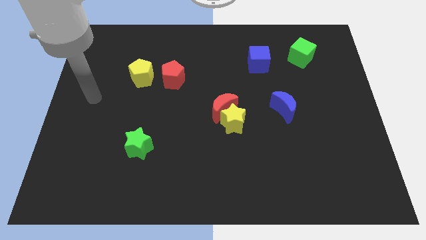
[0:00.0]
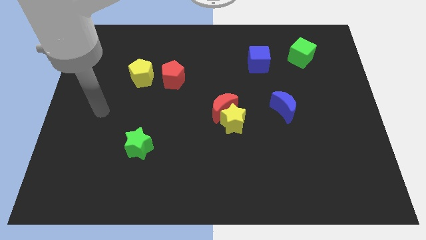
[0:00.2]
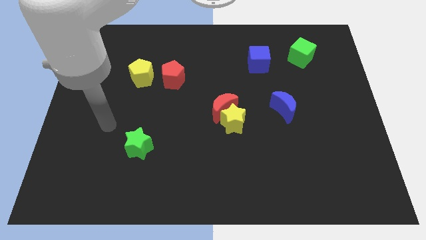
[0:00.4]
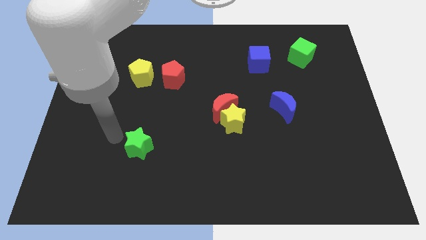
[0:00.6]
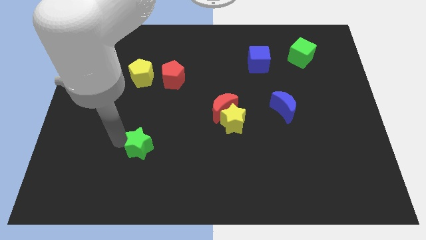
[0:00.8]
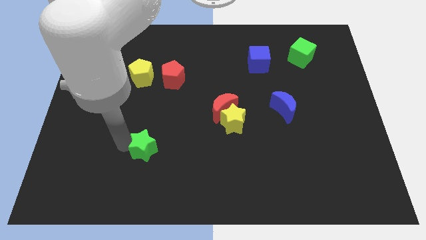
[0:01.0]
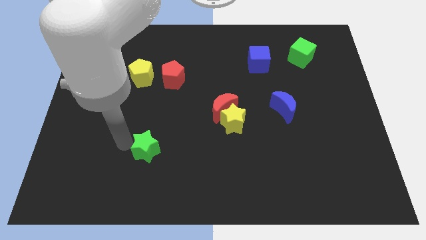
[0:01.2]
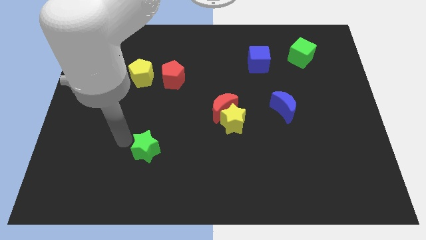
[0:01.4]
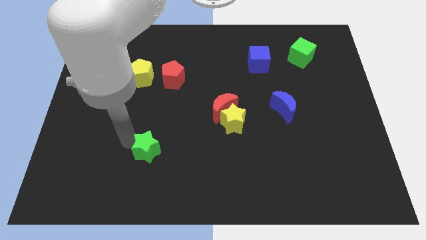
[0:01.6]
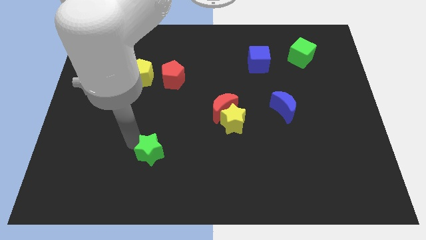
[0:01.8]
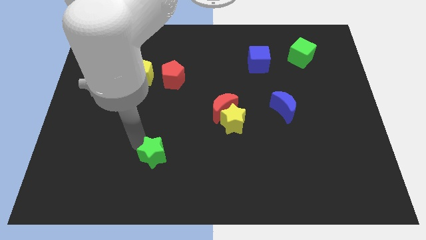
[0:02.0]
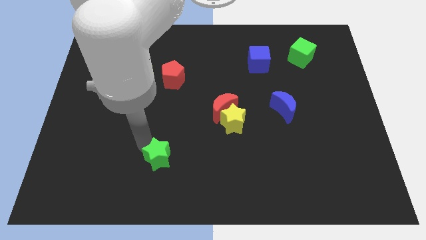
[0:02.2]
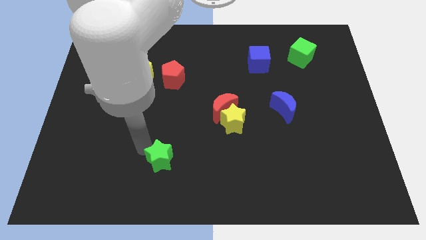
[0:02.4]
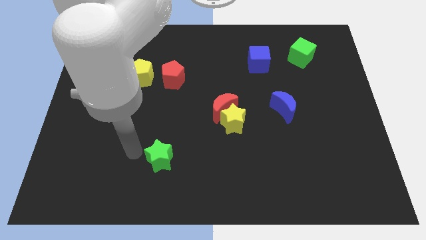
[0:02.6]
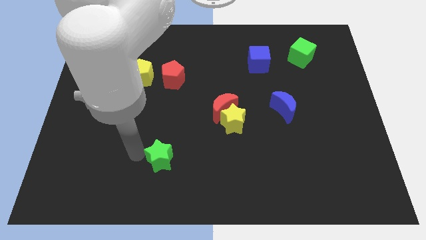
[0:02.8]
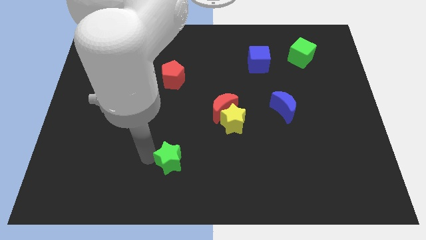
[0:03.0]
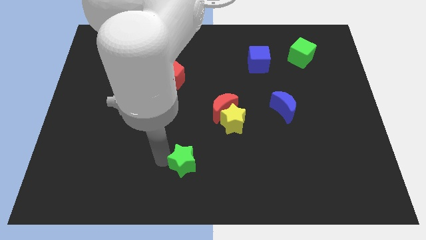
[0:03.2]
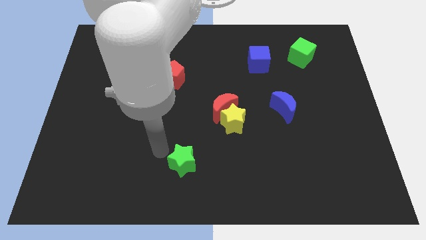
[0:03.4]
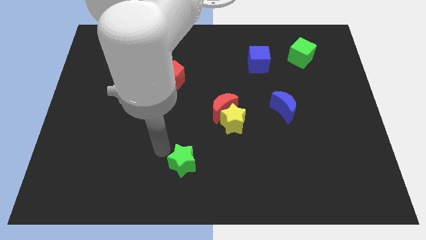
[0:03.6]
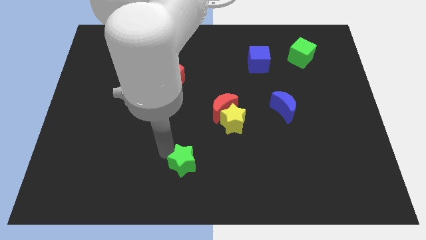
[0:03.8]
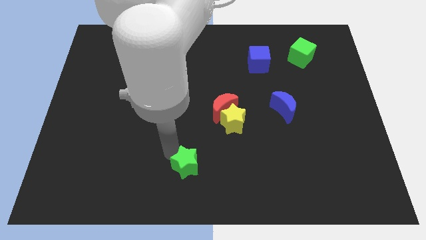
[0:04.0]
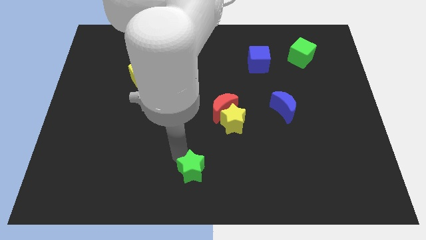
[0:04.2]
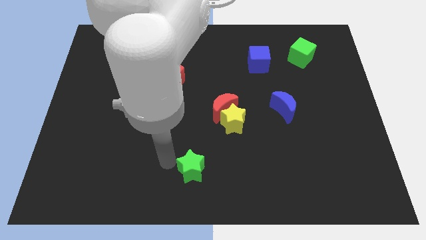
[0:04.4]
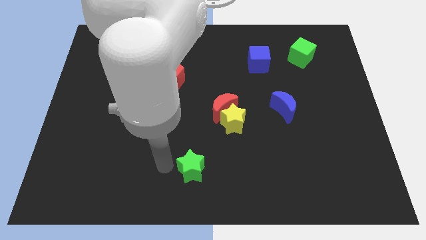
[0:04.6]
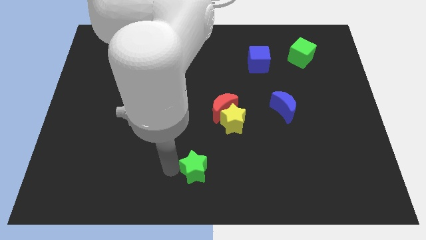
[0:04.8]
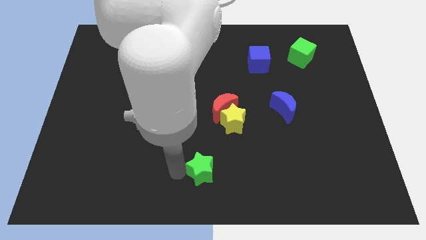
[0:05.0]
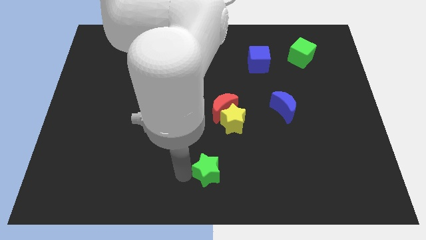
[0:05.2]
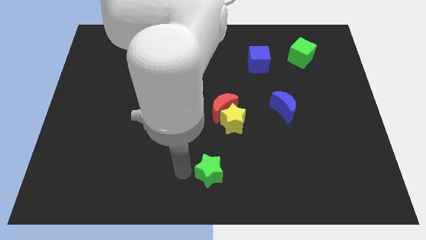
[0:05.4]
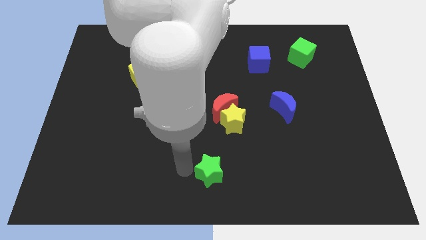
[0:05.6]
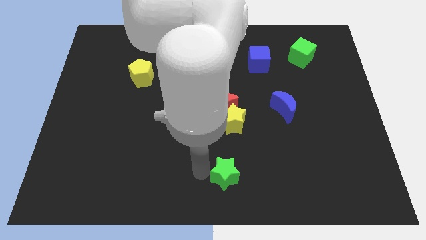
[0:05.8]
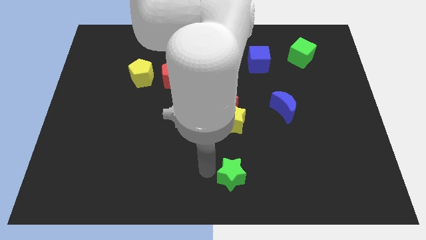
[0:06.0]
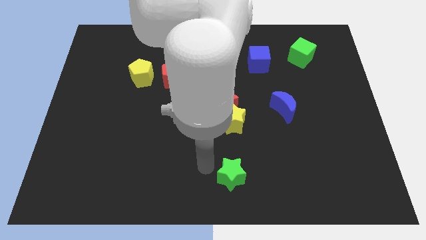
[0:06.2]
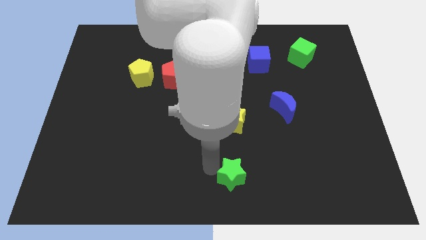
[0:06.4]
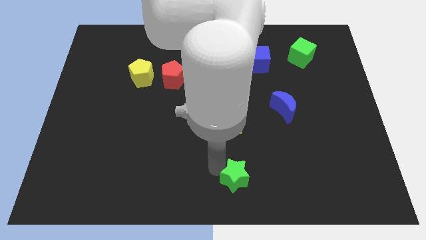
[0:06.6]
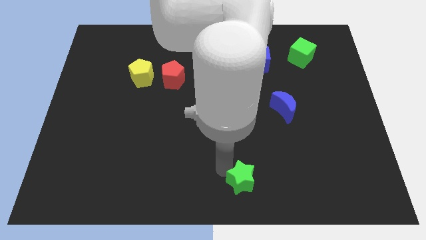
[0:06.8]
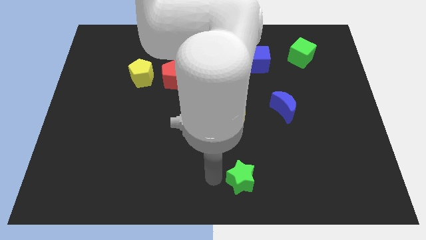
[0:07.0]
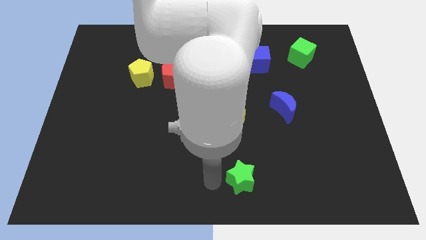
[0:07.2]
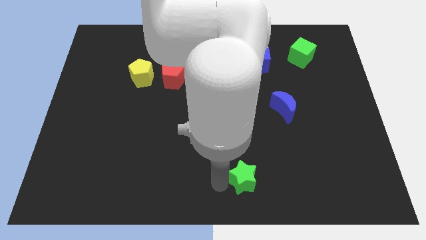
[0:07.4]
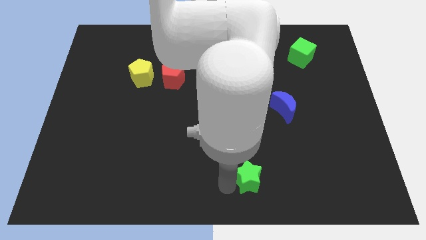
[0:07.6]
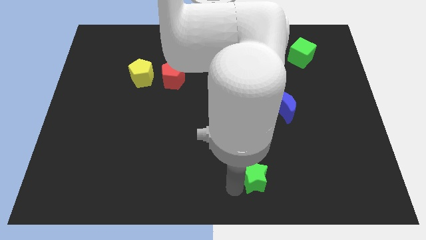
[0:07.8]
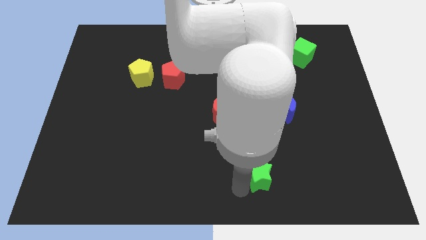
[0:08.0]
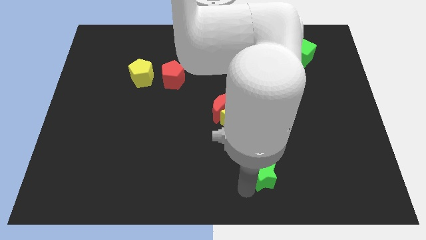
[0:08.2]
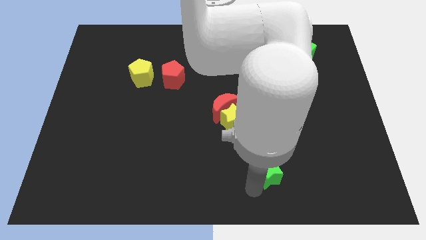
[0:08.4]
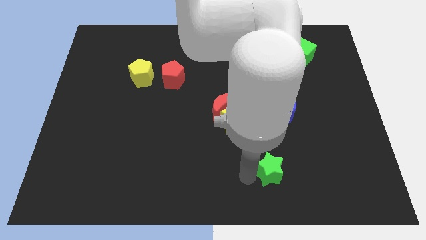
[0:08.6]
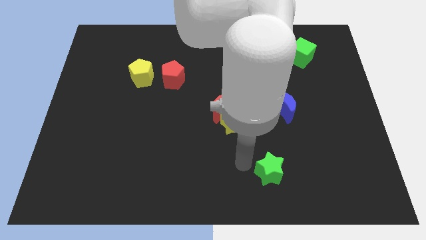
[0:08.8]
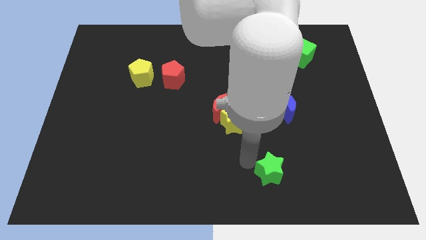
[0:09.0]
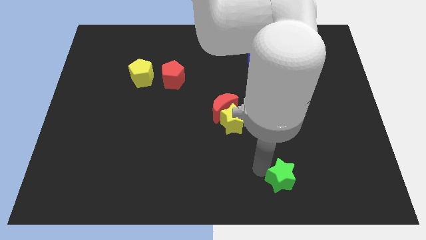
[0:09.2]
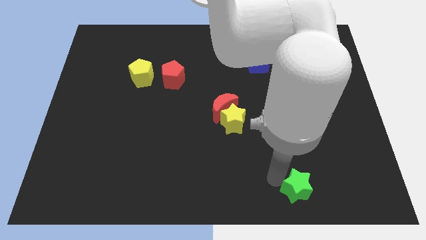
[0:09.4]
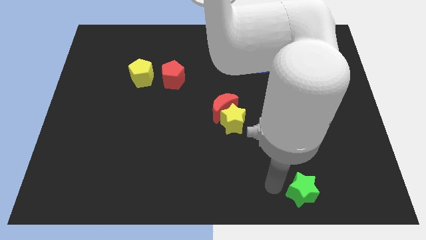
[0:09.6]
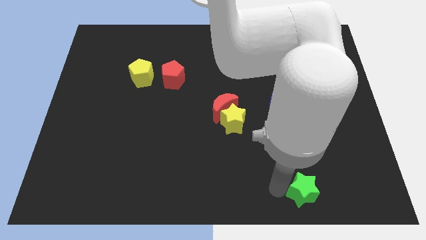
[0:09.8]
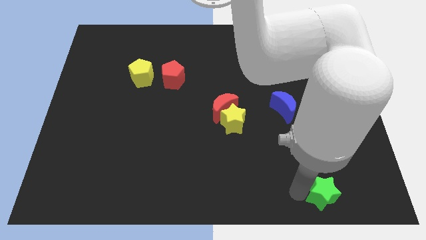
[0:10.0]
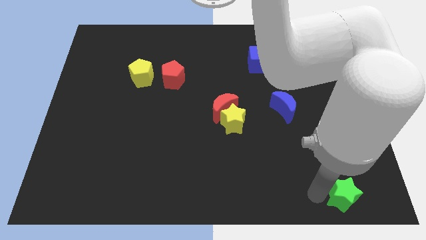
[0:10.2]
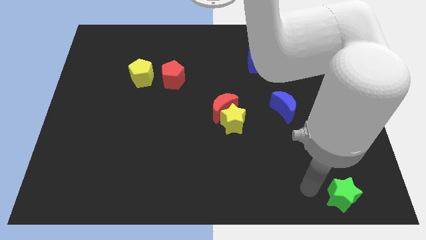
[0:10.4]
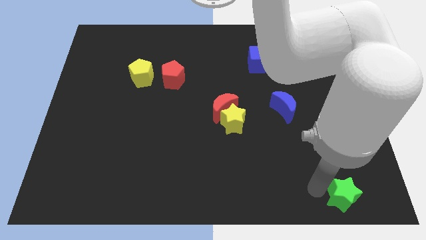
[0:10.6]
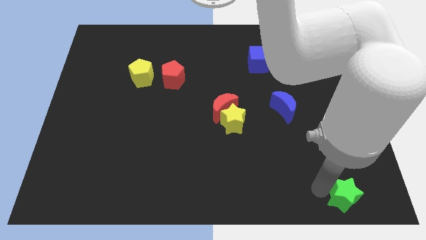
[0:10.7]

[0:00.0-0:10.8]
put the green star to the bottom right
